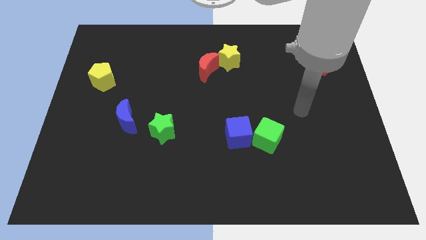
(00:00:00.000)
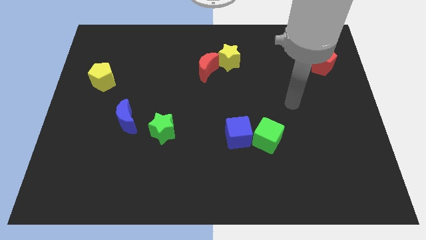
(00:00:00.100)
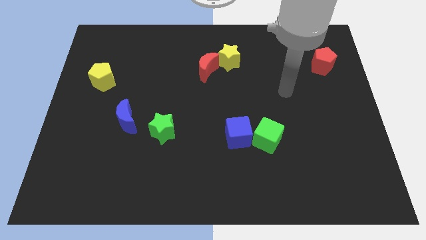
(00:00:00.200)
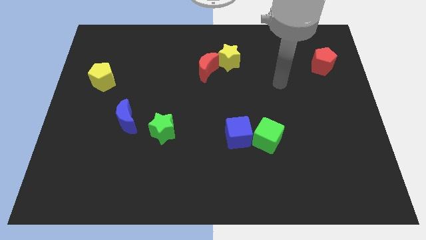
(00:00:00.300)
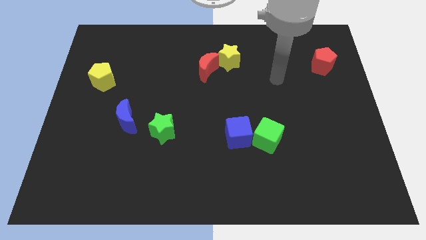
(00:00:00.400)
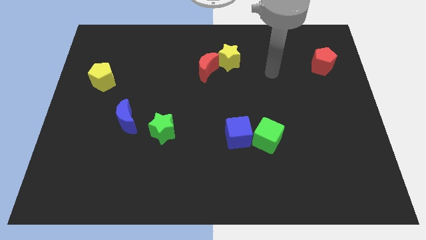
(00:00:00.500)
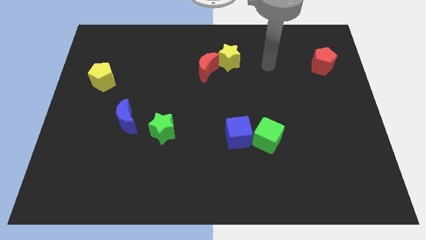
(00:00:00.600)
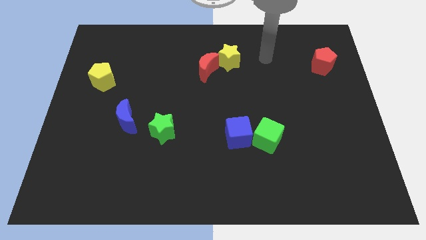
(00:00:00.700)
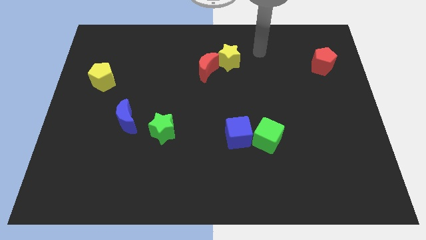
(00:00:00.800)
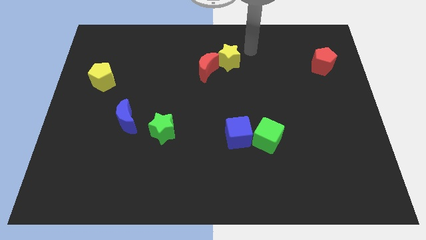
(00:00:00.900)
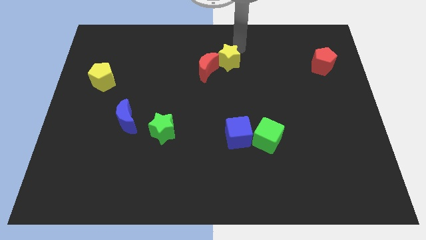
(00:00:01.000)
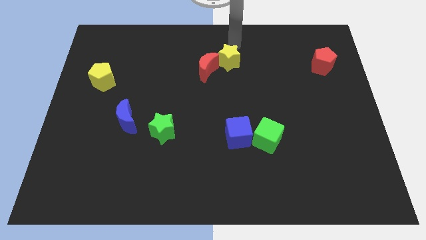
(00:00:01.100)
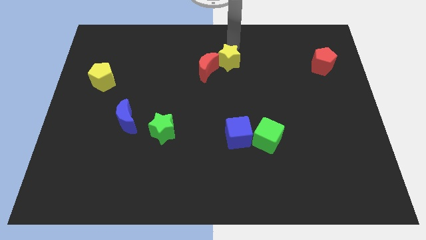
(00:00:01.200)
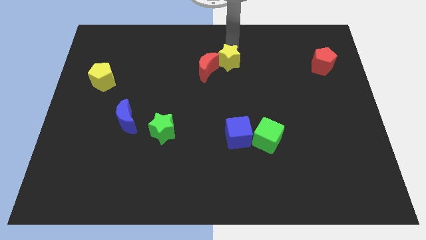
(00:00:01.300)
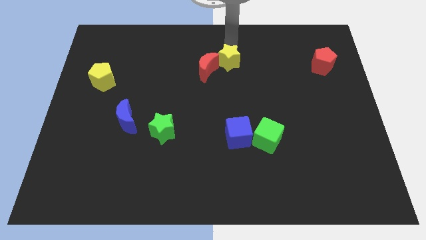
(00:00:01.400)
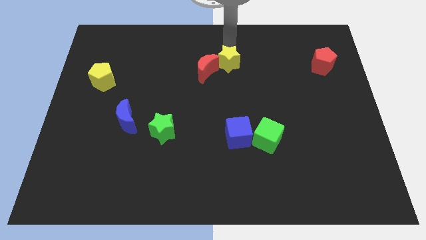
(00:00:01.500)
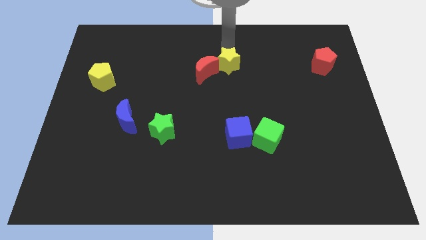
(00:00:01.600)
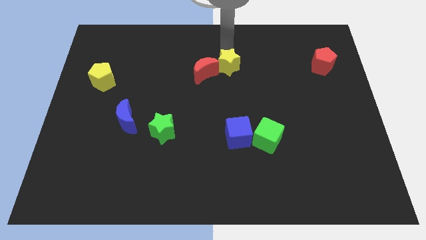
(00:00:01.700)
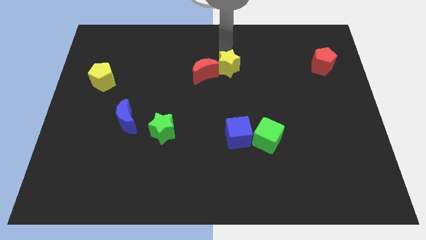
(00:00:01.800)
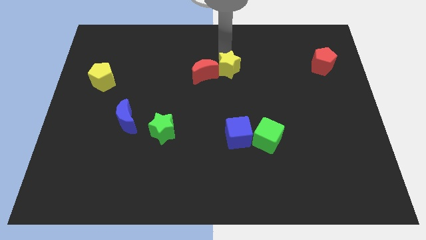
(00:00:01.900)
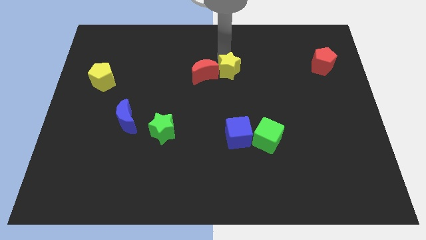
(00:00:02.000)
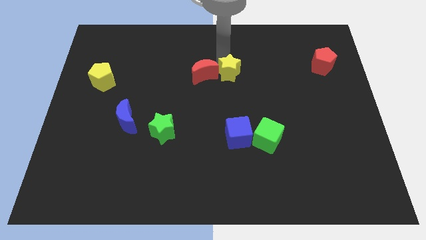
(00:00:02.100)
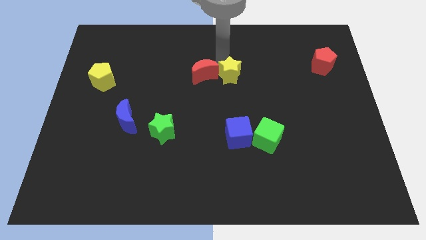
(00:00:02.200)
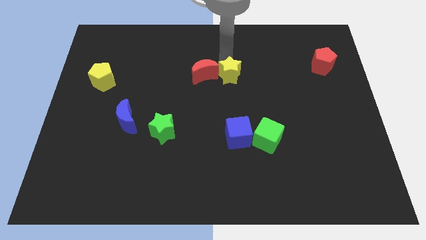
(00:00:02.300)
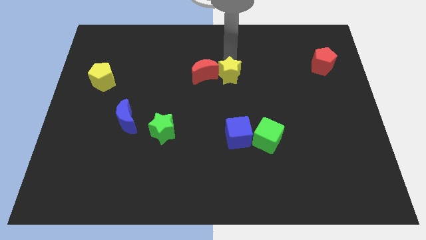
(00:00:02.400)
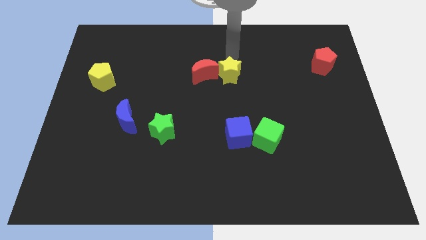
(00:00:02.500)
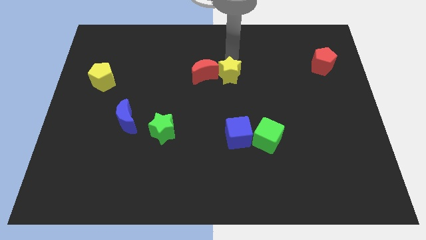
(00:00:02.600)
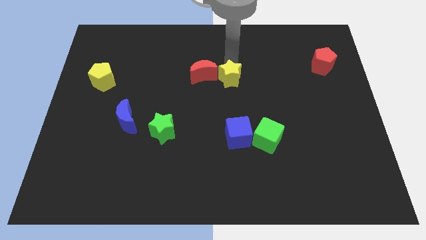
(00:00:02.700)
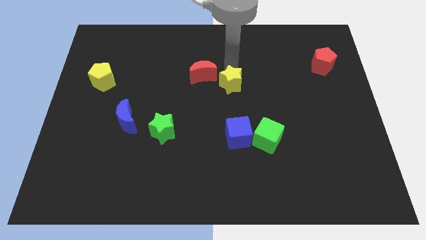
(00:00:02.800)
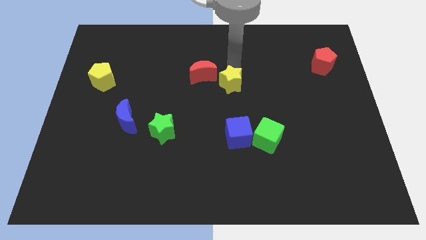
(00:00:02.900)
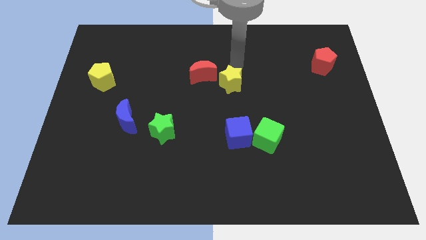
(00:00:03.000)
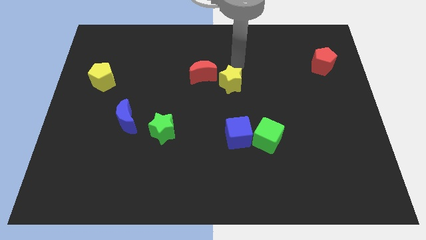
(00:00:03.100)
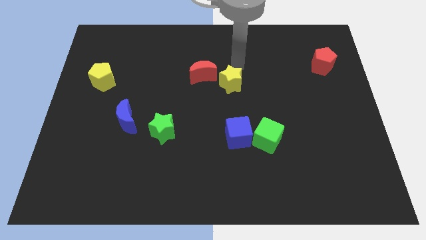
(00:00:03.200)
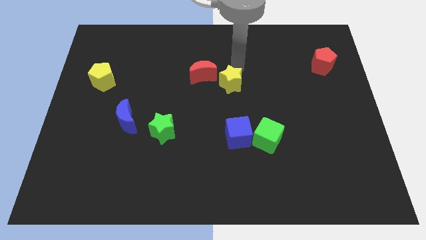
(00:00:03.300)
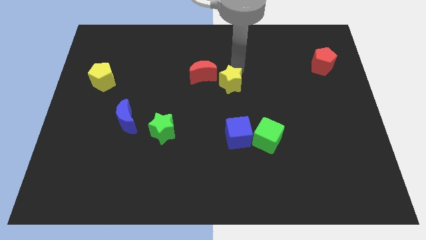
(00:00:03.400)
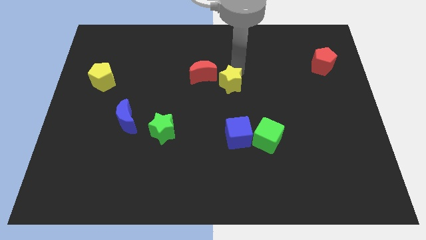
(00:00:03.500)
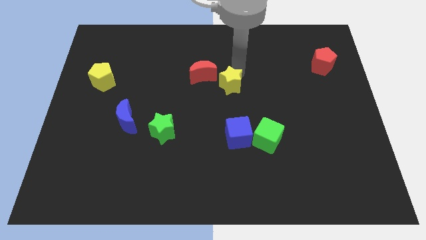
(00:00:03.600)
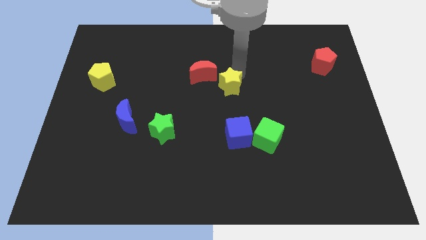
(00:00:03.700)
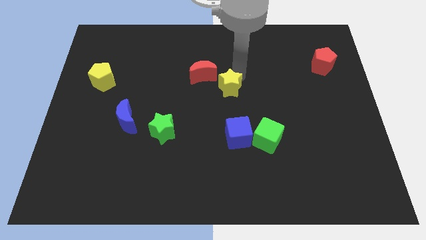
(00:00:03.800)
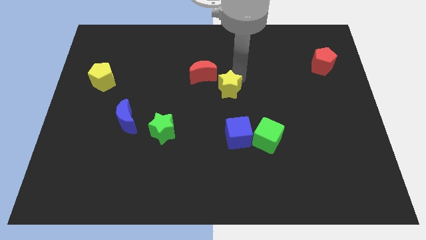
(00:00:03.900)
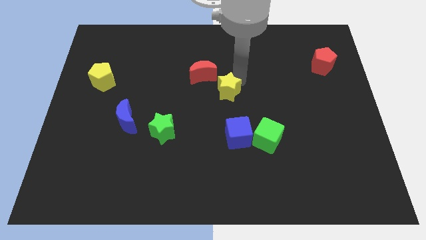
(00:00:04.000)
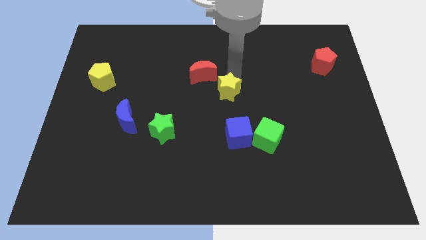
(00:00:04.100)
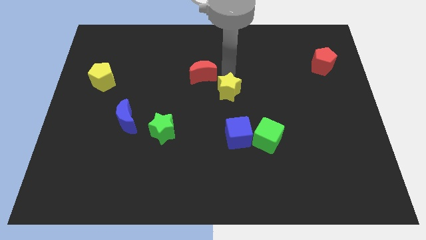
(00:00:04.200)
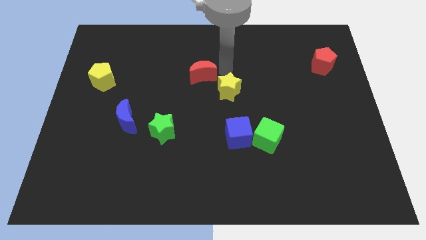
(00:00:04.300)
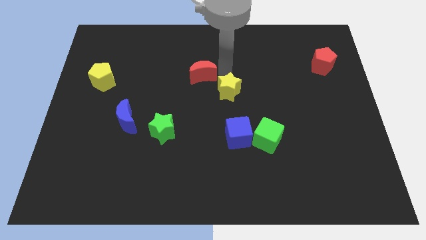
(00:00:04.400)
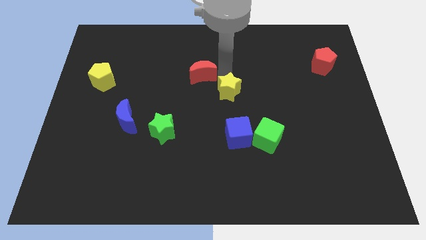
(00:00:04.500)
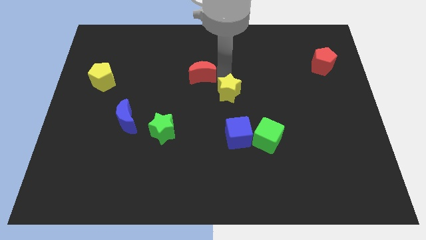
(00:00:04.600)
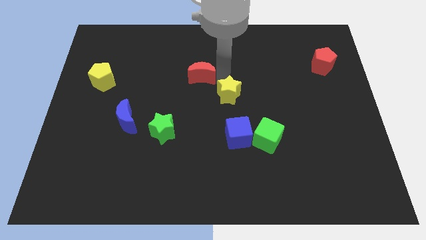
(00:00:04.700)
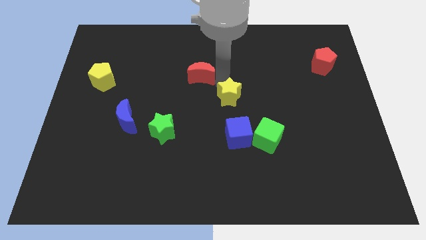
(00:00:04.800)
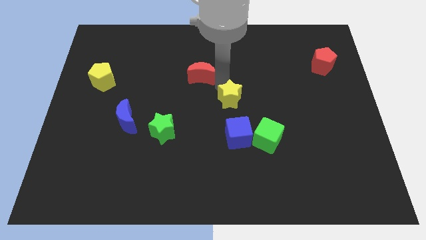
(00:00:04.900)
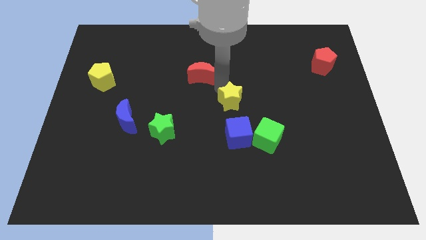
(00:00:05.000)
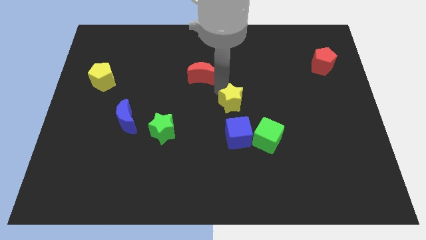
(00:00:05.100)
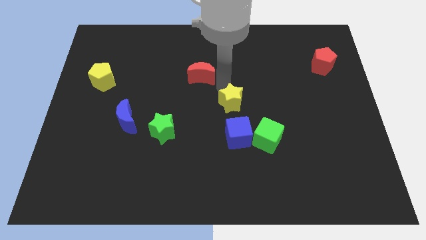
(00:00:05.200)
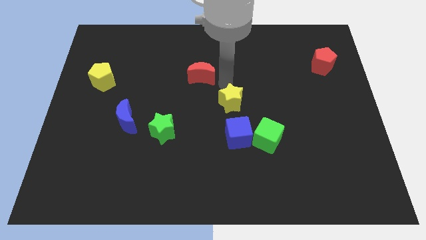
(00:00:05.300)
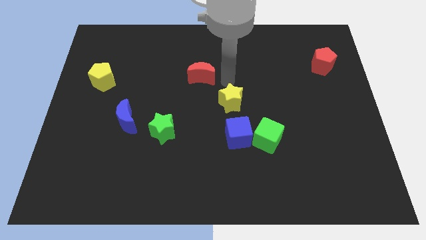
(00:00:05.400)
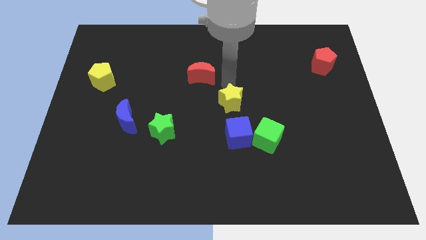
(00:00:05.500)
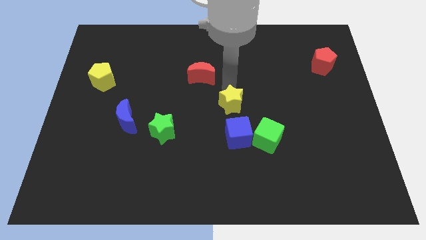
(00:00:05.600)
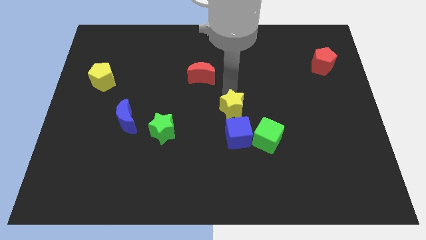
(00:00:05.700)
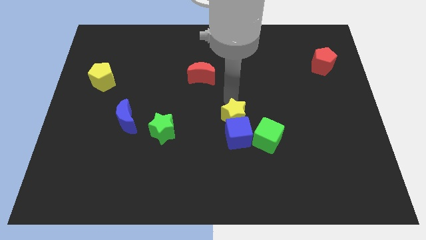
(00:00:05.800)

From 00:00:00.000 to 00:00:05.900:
slide the yellow star to the blue cube

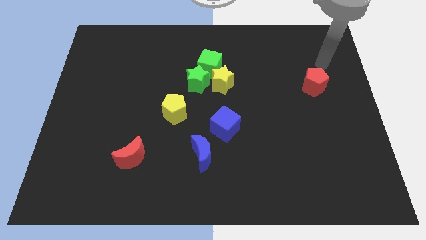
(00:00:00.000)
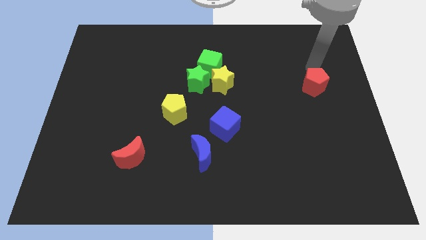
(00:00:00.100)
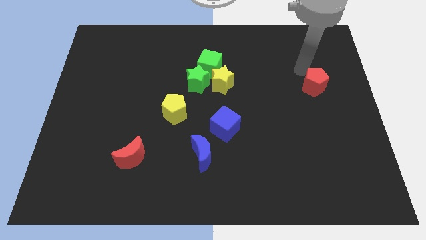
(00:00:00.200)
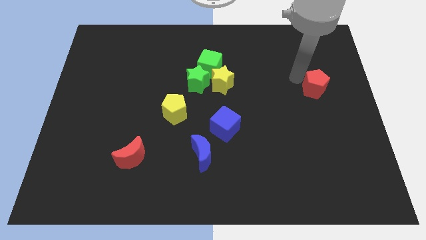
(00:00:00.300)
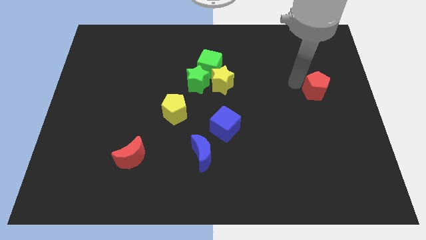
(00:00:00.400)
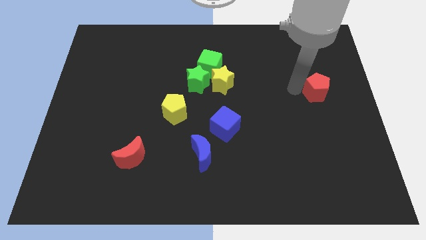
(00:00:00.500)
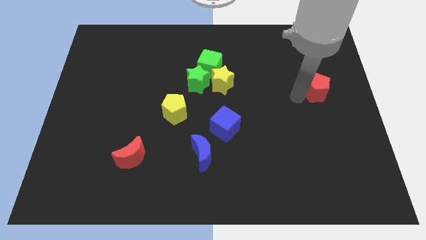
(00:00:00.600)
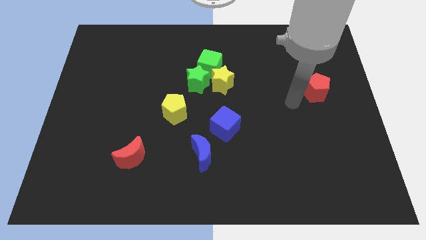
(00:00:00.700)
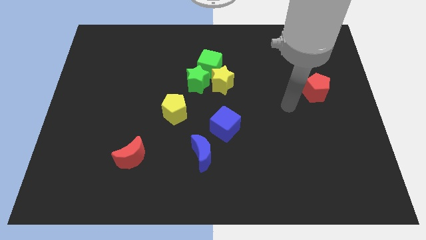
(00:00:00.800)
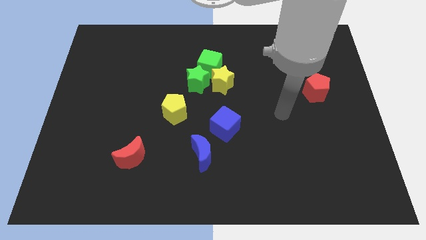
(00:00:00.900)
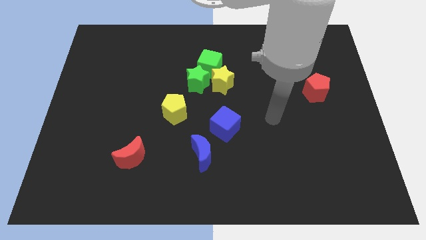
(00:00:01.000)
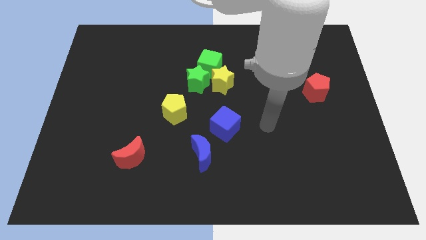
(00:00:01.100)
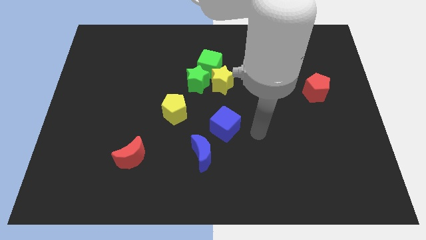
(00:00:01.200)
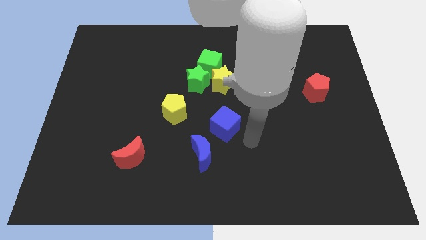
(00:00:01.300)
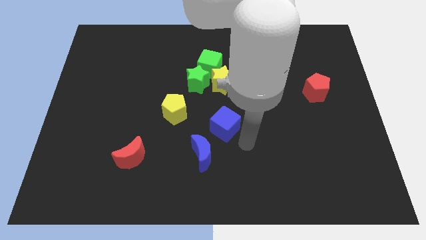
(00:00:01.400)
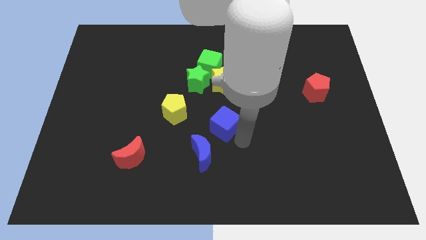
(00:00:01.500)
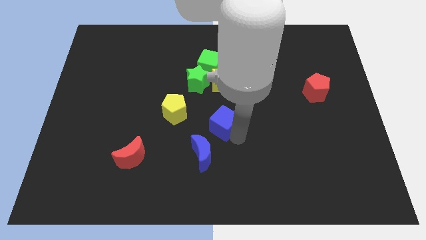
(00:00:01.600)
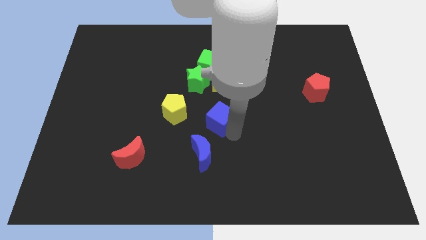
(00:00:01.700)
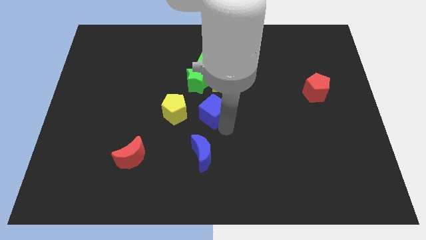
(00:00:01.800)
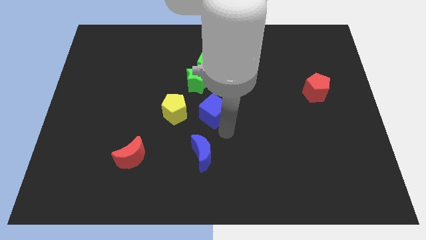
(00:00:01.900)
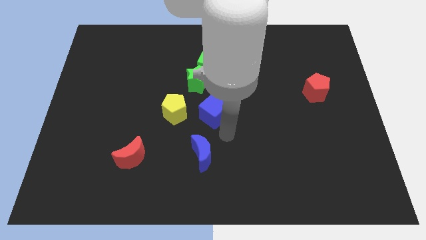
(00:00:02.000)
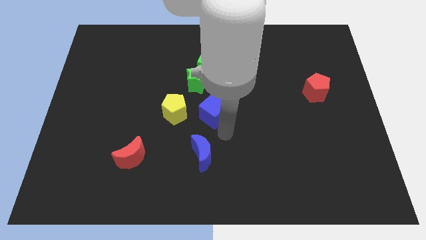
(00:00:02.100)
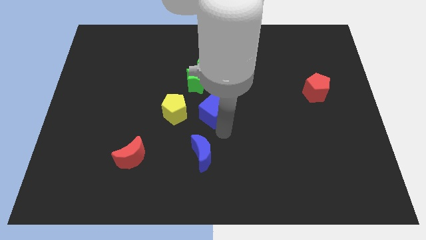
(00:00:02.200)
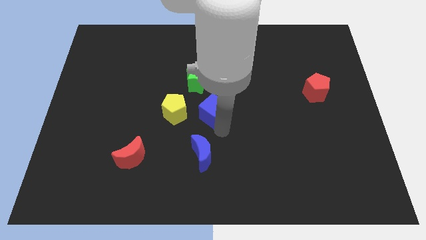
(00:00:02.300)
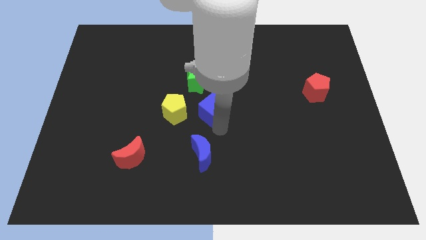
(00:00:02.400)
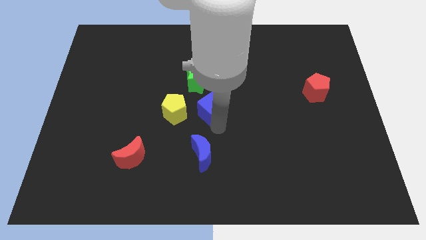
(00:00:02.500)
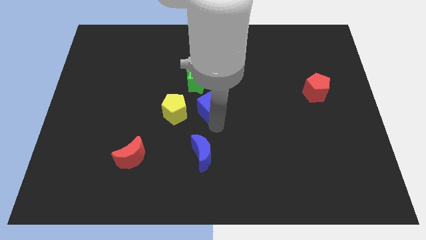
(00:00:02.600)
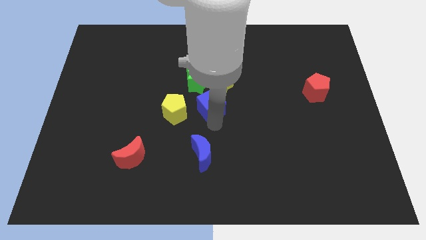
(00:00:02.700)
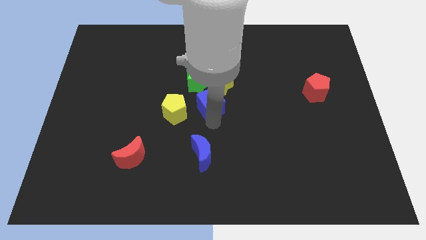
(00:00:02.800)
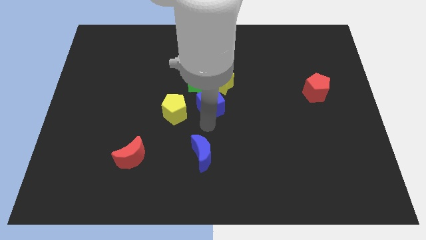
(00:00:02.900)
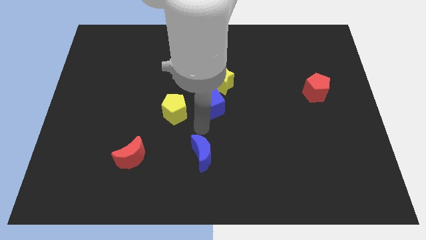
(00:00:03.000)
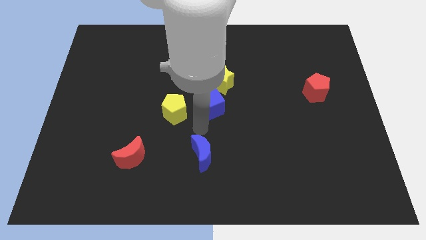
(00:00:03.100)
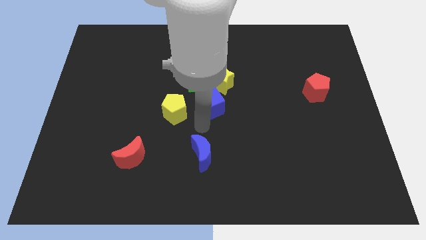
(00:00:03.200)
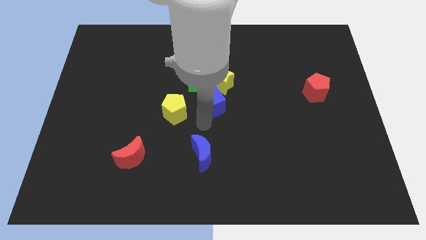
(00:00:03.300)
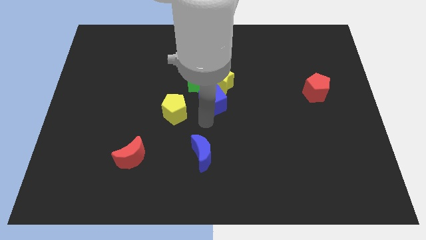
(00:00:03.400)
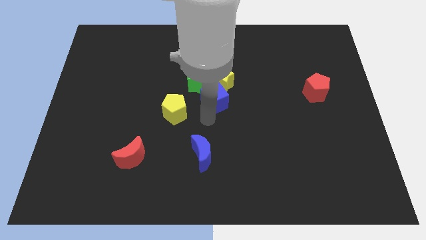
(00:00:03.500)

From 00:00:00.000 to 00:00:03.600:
push the blue cube towards the yellow star
